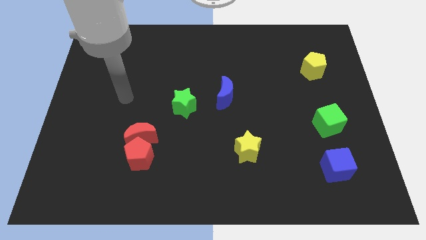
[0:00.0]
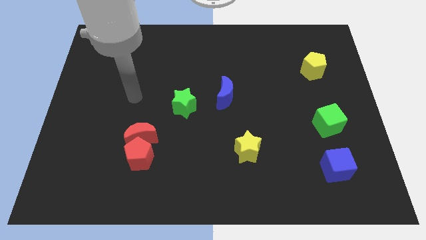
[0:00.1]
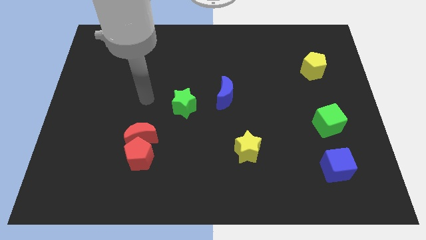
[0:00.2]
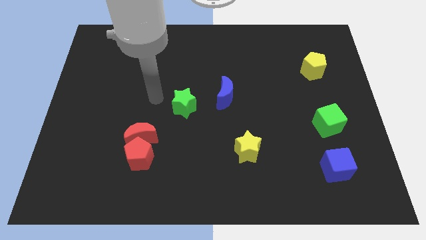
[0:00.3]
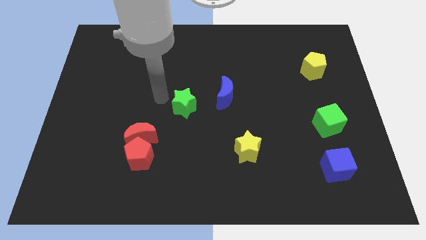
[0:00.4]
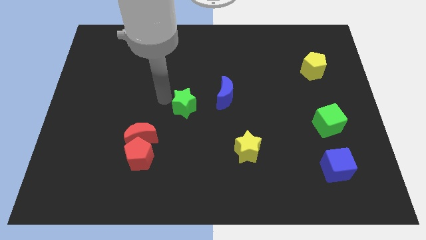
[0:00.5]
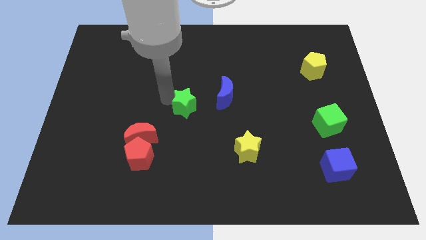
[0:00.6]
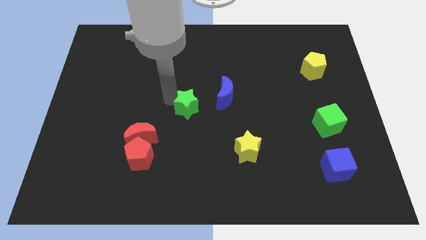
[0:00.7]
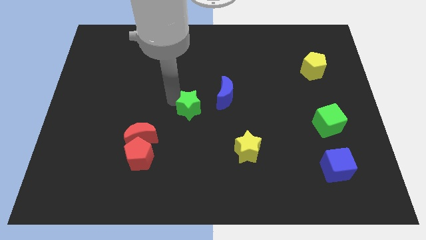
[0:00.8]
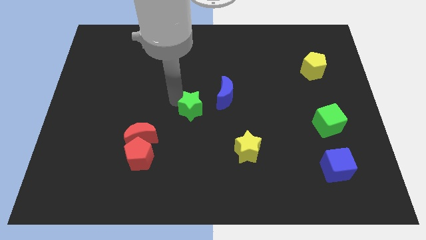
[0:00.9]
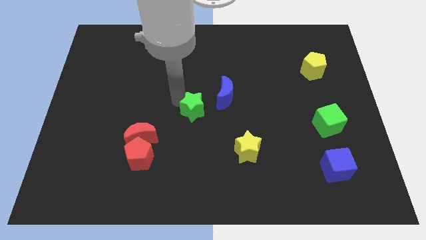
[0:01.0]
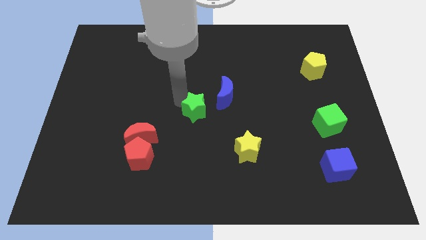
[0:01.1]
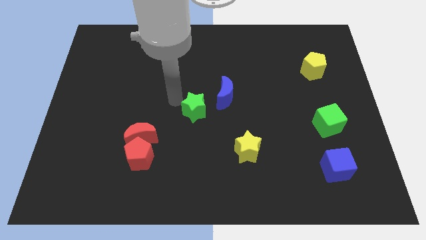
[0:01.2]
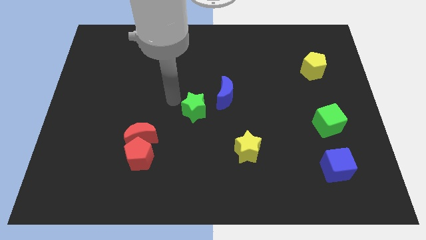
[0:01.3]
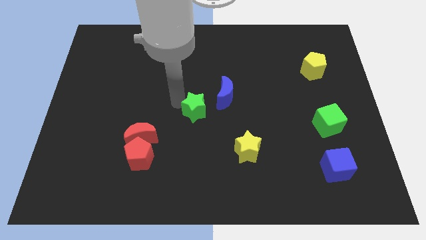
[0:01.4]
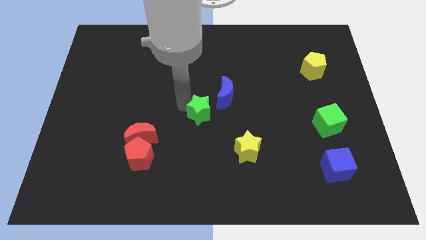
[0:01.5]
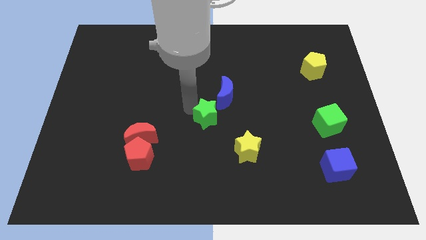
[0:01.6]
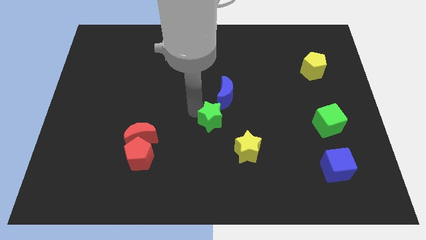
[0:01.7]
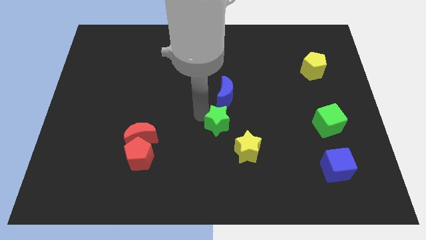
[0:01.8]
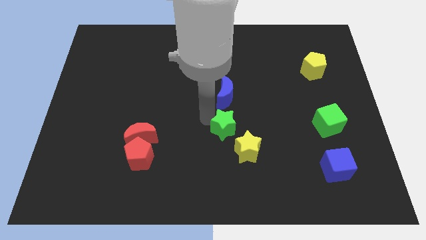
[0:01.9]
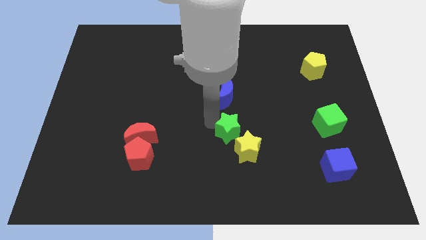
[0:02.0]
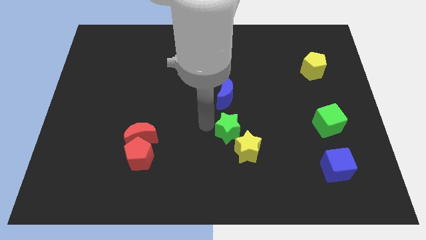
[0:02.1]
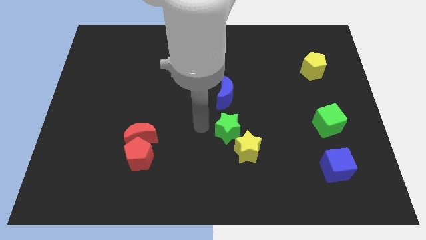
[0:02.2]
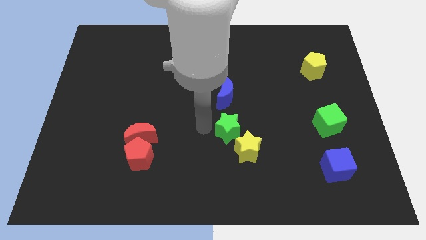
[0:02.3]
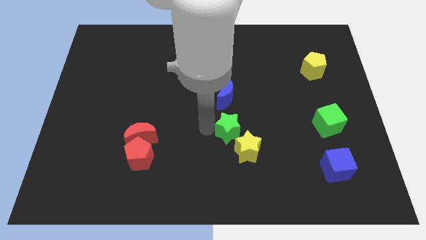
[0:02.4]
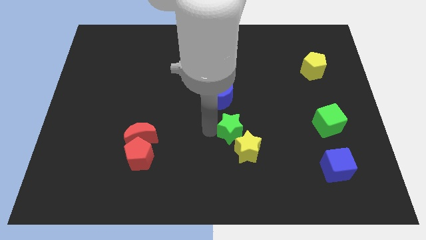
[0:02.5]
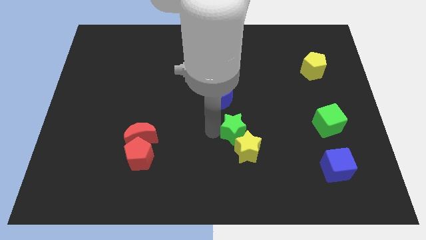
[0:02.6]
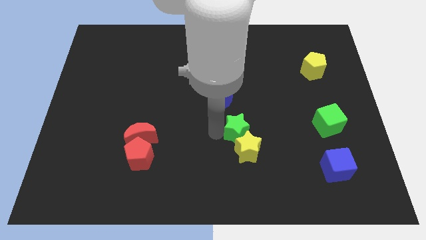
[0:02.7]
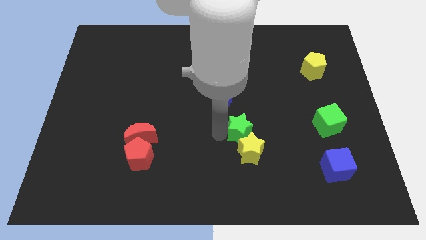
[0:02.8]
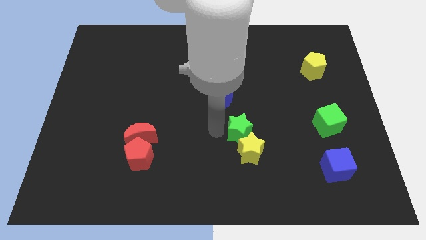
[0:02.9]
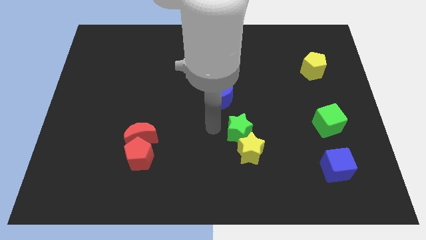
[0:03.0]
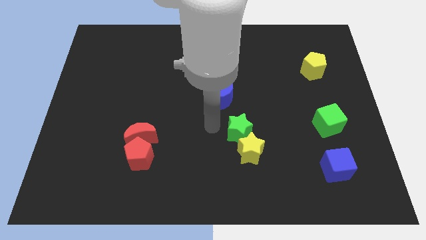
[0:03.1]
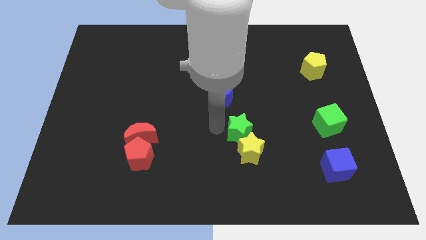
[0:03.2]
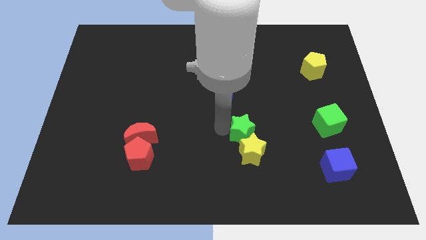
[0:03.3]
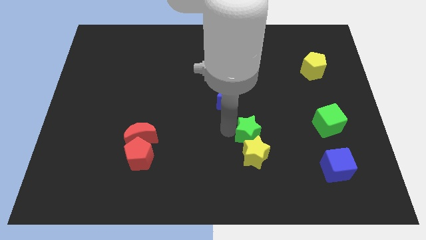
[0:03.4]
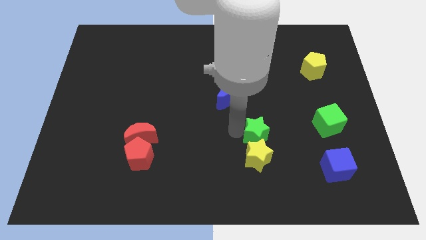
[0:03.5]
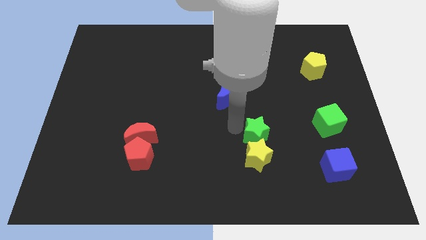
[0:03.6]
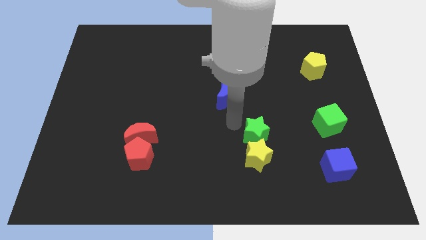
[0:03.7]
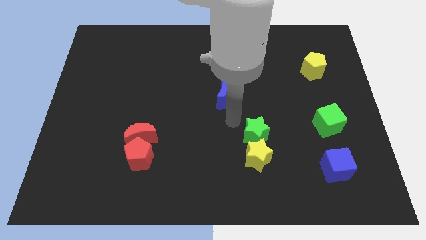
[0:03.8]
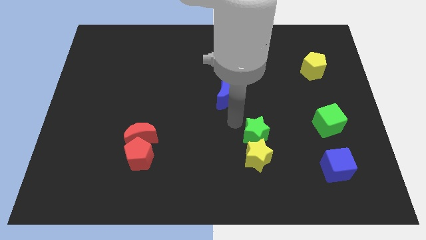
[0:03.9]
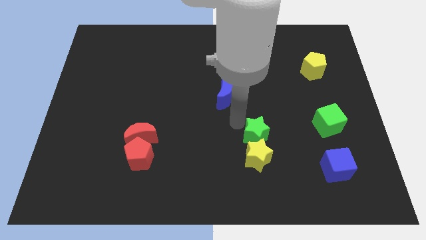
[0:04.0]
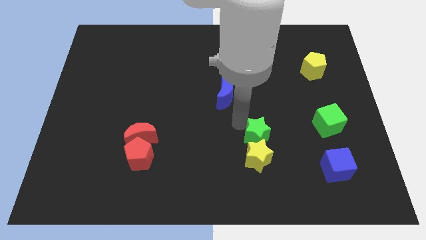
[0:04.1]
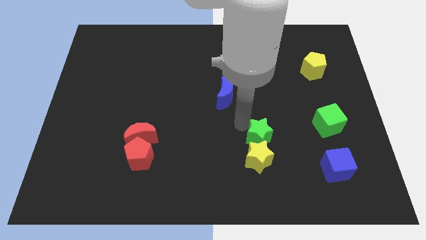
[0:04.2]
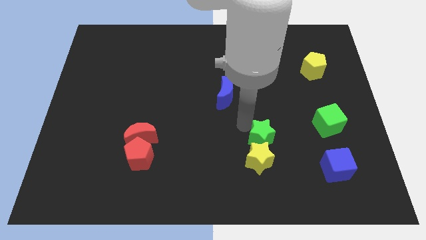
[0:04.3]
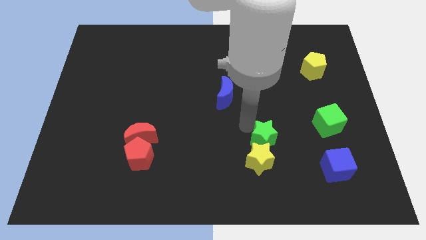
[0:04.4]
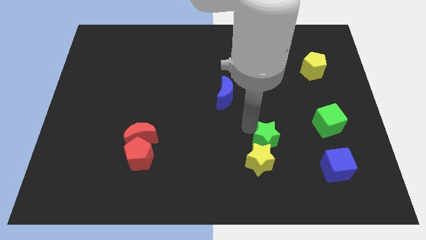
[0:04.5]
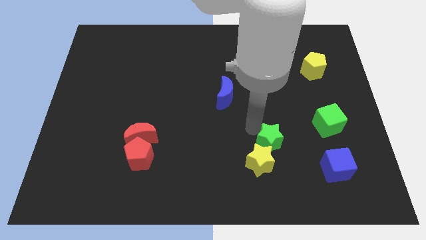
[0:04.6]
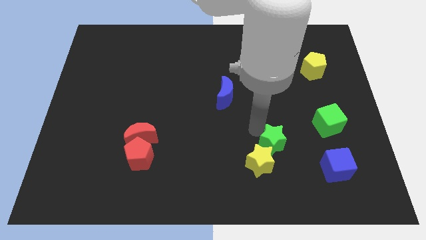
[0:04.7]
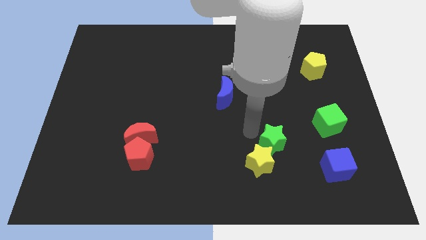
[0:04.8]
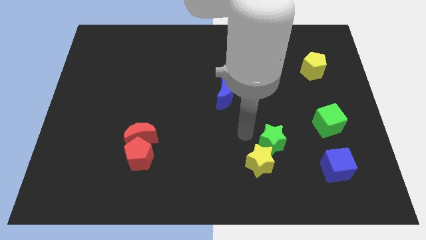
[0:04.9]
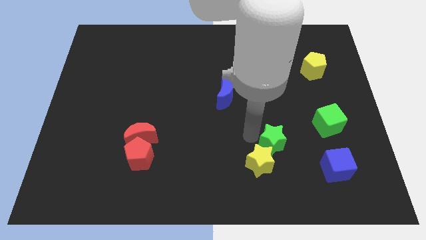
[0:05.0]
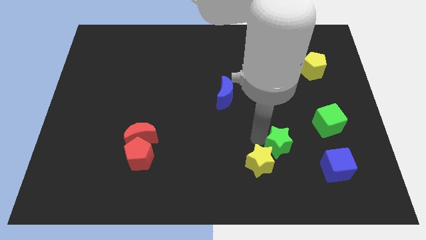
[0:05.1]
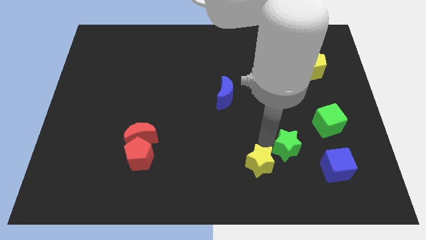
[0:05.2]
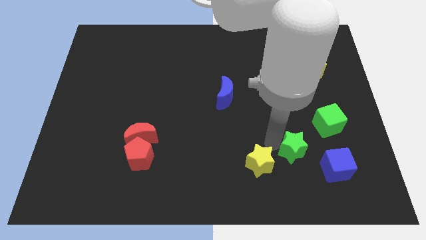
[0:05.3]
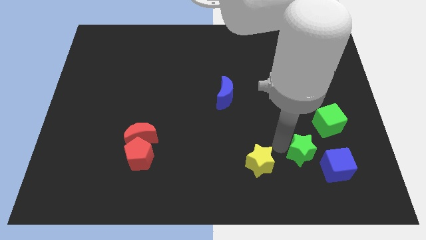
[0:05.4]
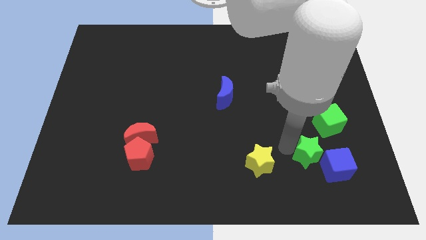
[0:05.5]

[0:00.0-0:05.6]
move the green star close to the blue cube

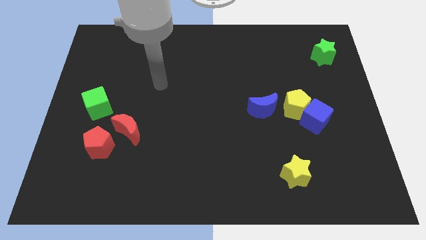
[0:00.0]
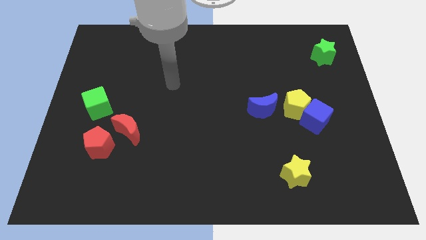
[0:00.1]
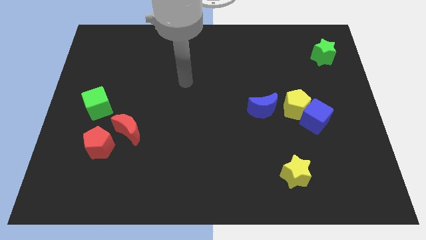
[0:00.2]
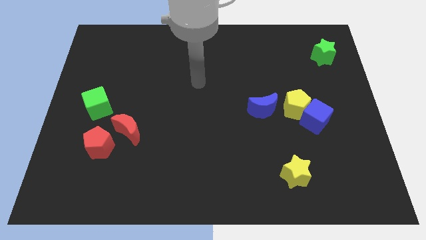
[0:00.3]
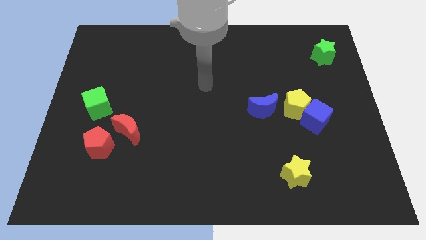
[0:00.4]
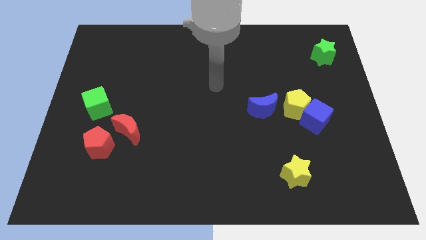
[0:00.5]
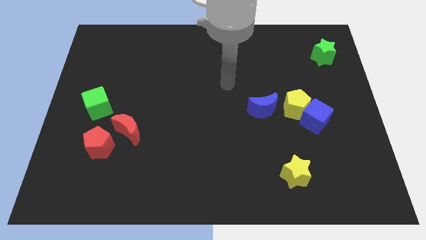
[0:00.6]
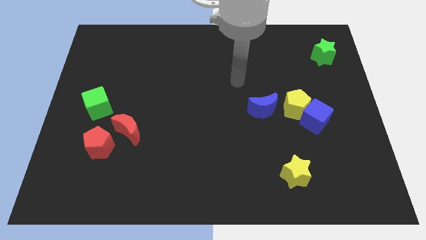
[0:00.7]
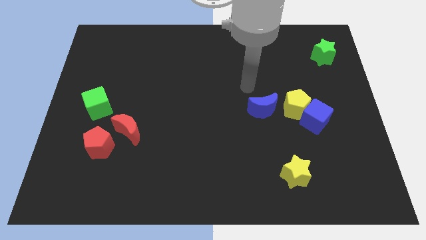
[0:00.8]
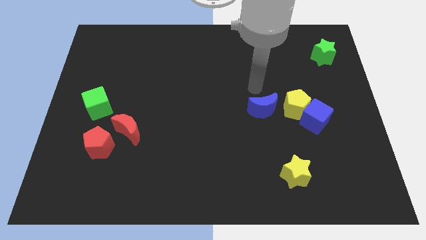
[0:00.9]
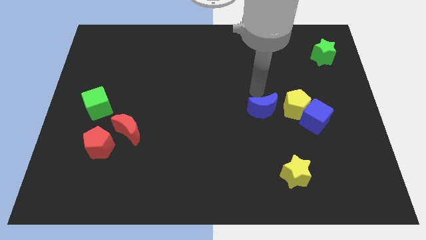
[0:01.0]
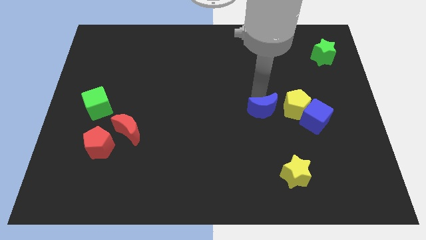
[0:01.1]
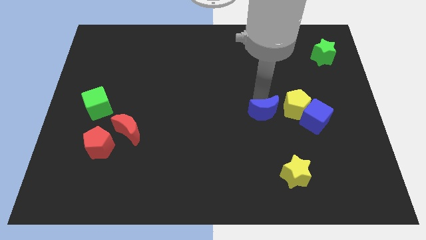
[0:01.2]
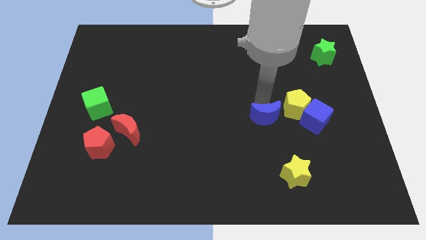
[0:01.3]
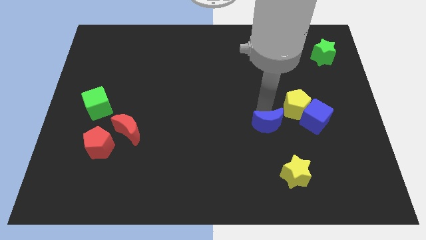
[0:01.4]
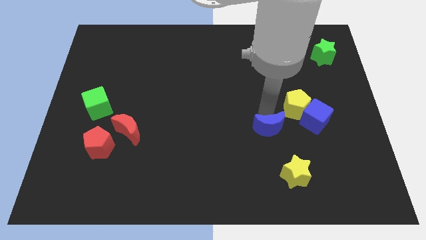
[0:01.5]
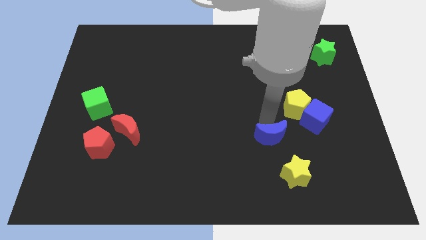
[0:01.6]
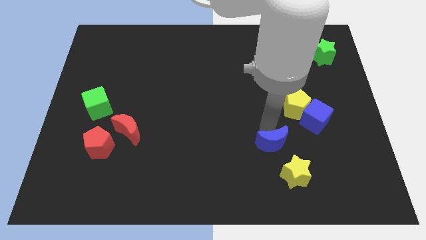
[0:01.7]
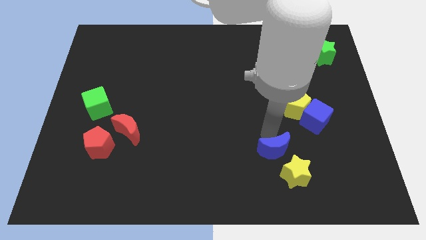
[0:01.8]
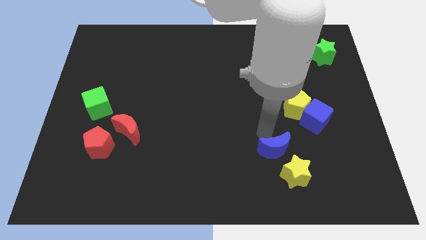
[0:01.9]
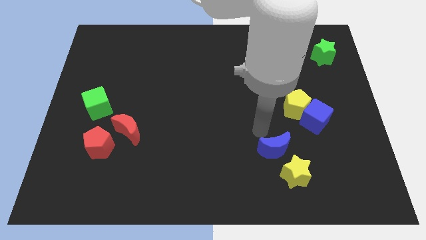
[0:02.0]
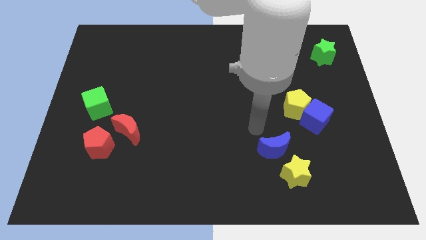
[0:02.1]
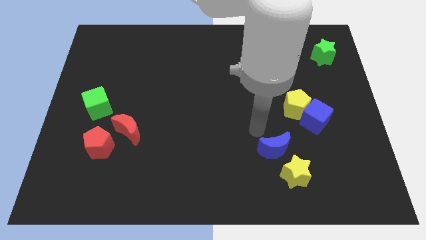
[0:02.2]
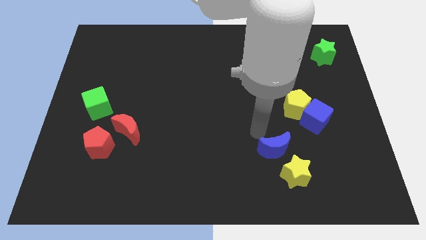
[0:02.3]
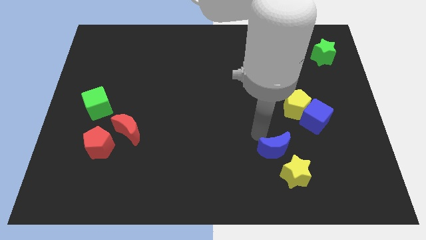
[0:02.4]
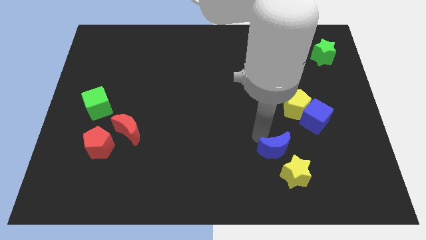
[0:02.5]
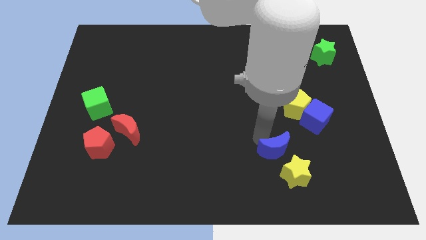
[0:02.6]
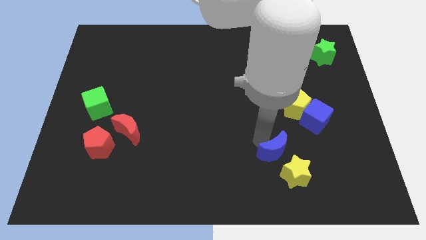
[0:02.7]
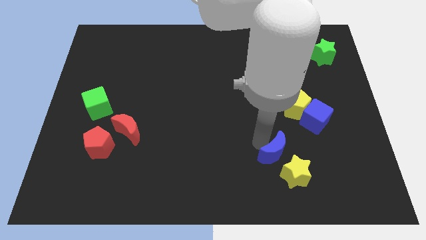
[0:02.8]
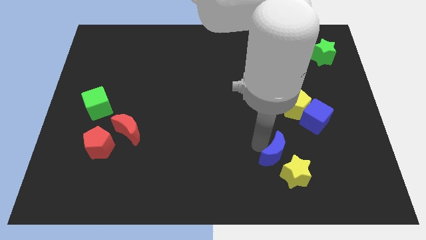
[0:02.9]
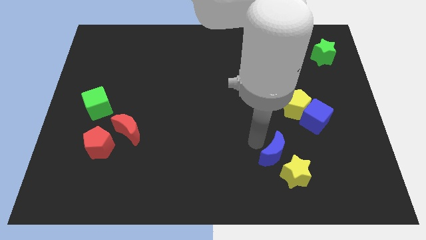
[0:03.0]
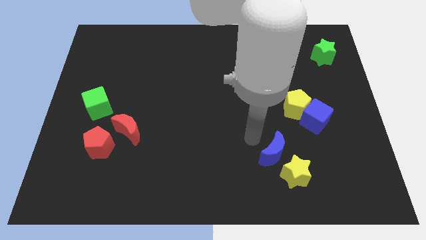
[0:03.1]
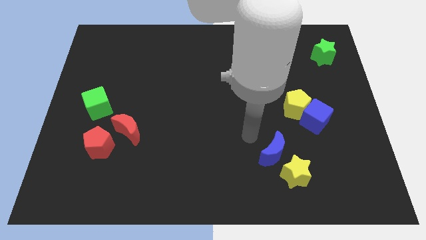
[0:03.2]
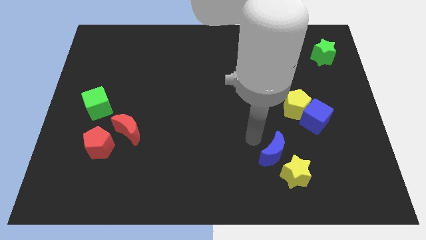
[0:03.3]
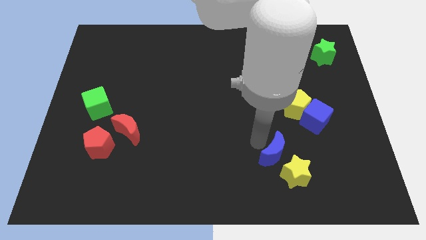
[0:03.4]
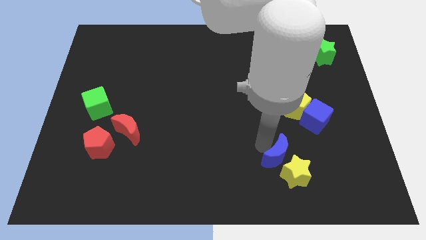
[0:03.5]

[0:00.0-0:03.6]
move the blue moon close to the yellow star
